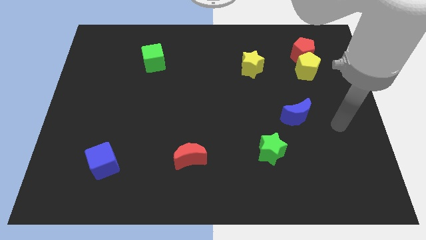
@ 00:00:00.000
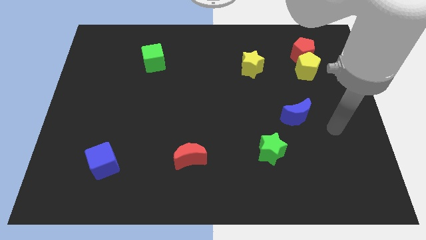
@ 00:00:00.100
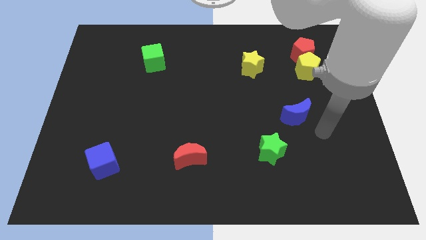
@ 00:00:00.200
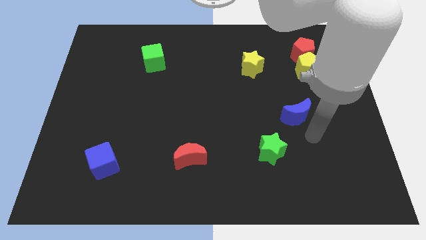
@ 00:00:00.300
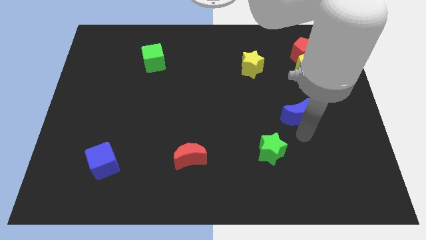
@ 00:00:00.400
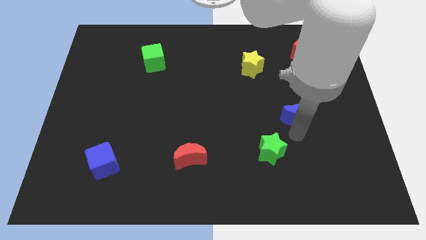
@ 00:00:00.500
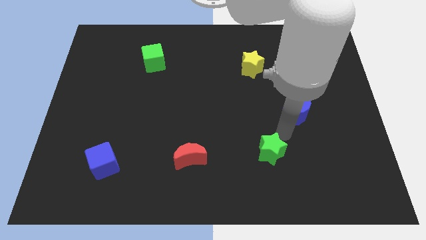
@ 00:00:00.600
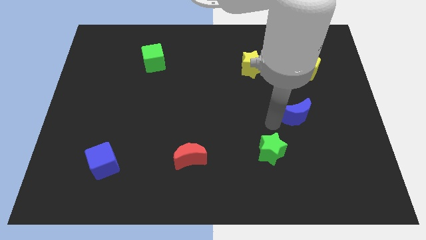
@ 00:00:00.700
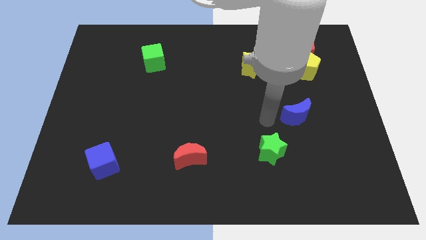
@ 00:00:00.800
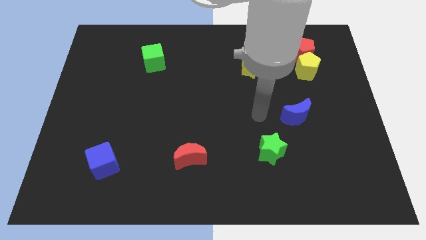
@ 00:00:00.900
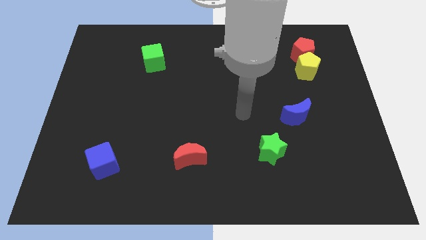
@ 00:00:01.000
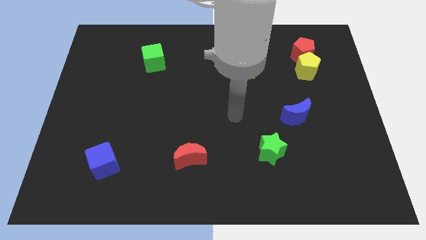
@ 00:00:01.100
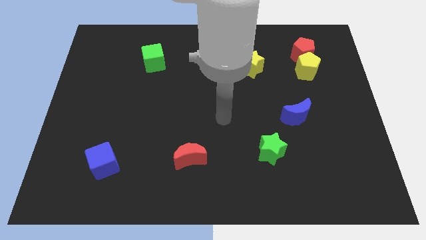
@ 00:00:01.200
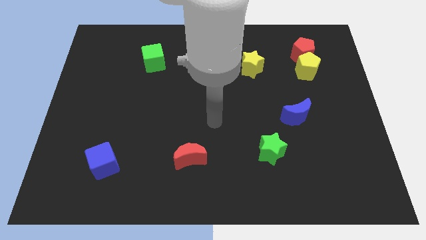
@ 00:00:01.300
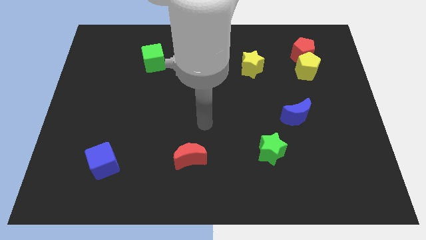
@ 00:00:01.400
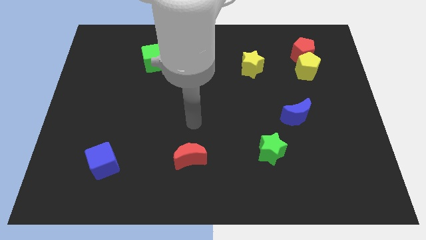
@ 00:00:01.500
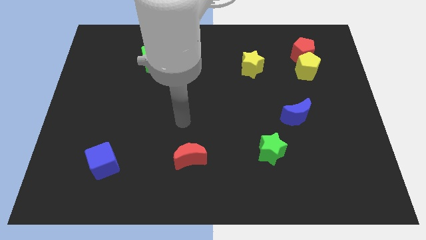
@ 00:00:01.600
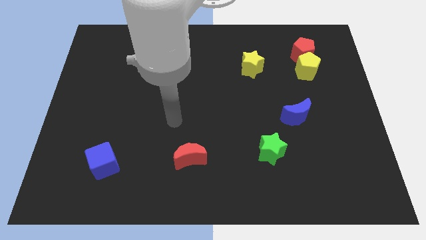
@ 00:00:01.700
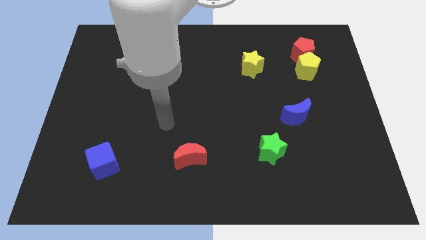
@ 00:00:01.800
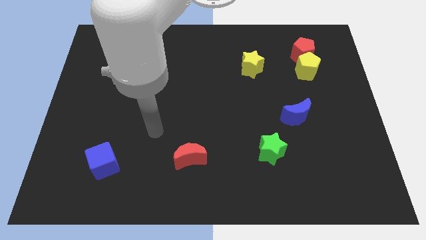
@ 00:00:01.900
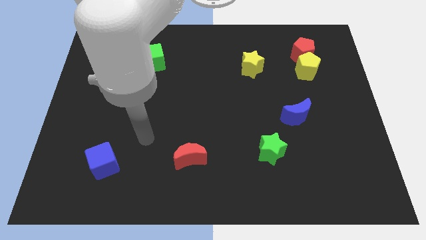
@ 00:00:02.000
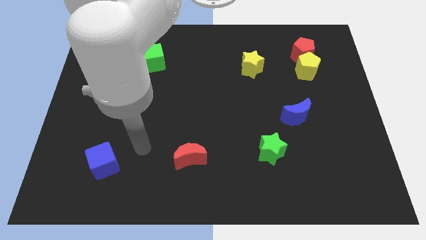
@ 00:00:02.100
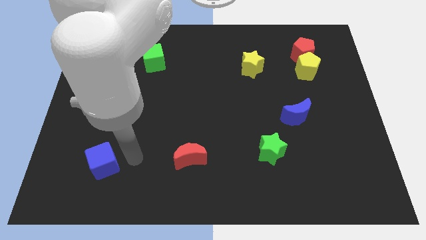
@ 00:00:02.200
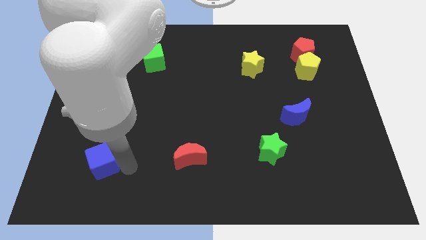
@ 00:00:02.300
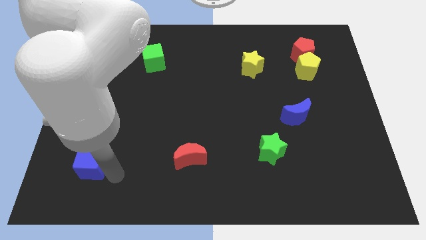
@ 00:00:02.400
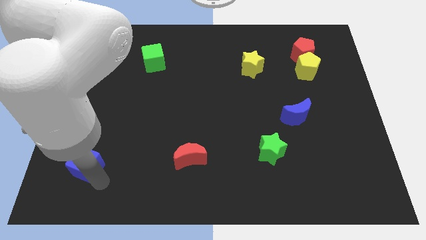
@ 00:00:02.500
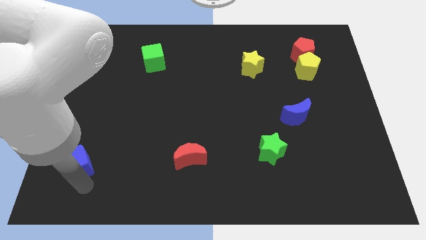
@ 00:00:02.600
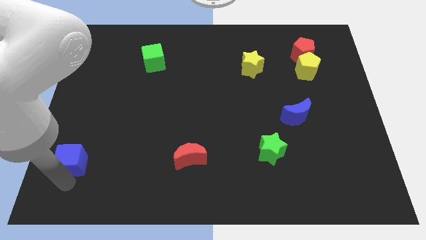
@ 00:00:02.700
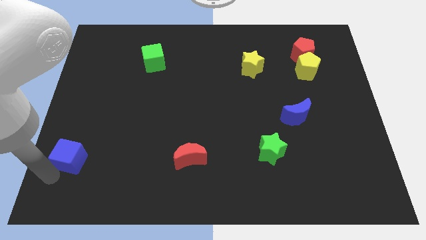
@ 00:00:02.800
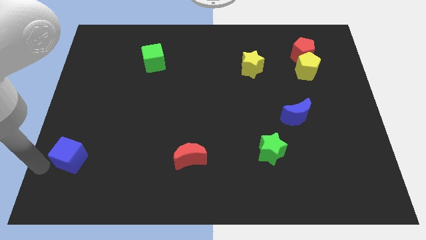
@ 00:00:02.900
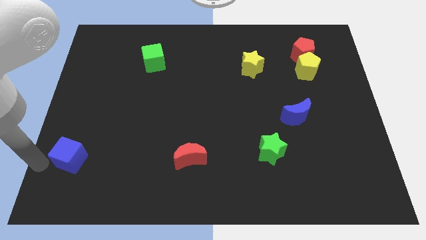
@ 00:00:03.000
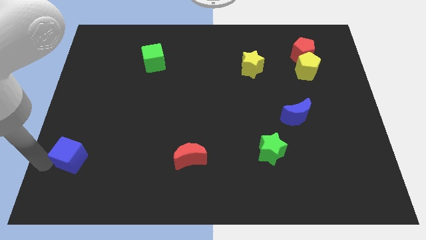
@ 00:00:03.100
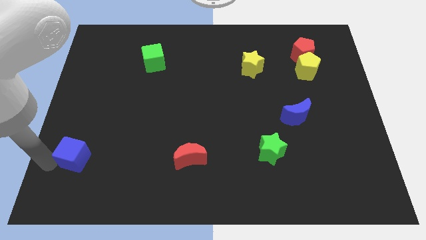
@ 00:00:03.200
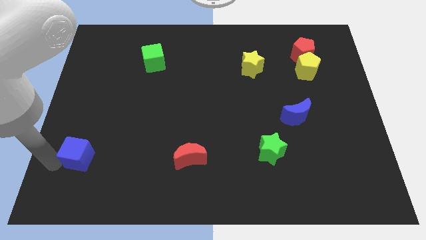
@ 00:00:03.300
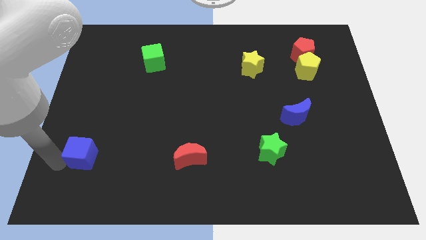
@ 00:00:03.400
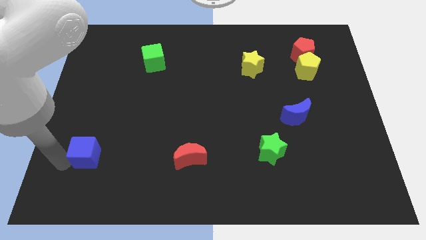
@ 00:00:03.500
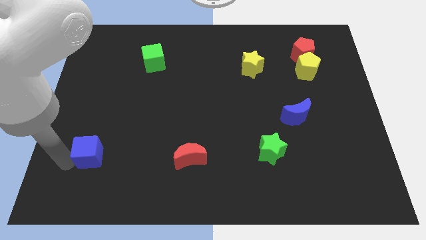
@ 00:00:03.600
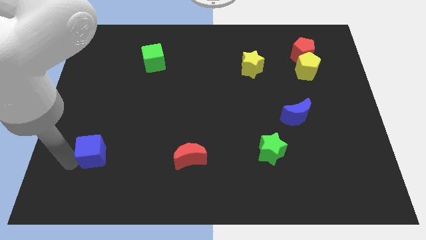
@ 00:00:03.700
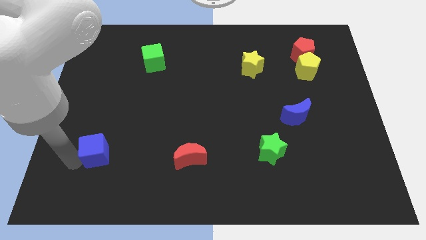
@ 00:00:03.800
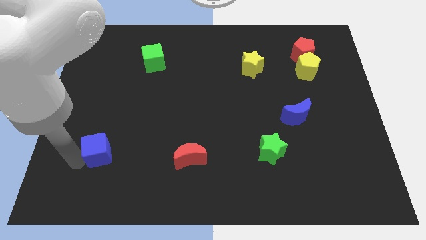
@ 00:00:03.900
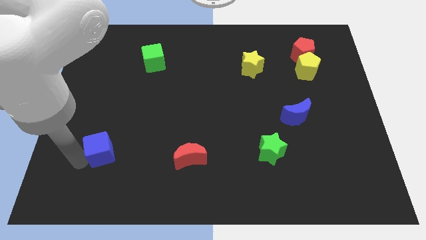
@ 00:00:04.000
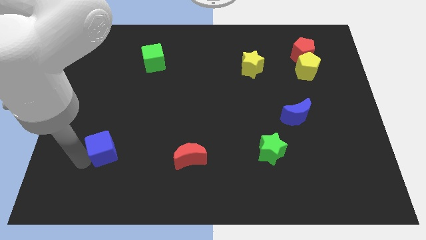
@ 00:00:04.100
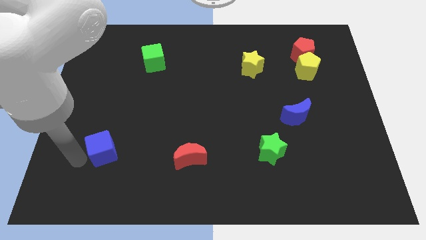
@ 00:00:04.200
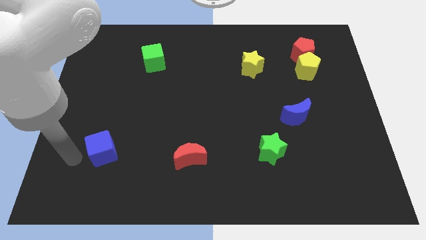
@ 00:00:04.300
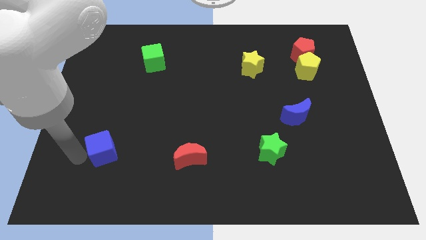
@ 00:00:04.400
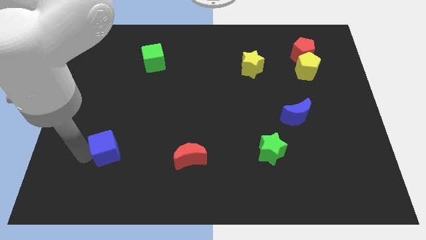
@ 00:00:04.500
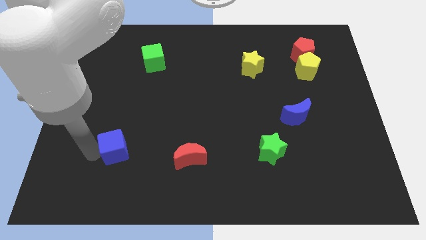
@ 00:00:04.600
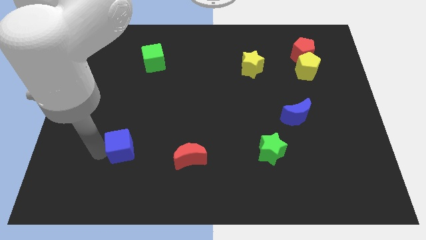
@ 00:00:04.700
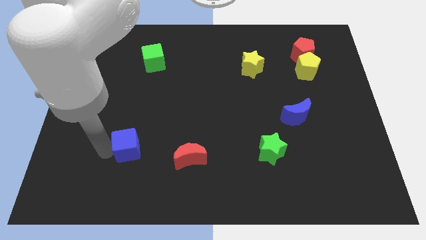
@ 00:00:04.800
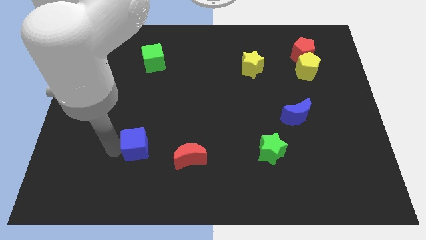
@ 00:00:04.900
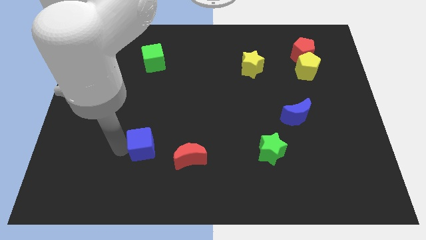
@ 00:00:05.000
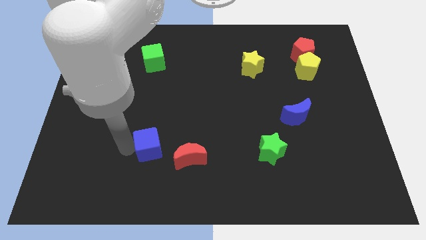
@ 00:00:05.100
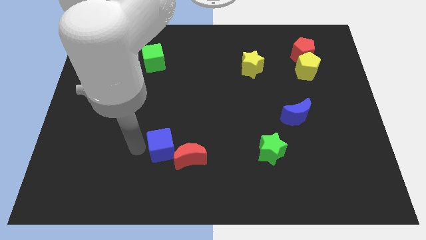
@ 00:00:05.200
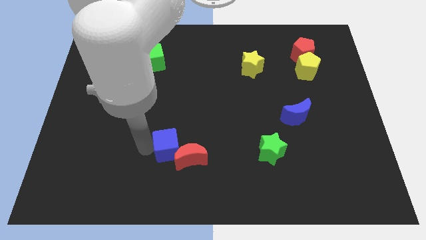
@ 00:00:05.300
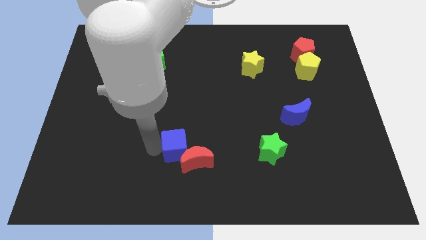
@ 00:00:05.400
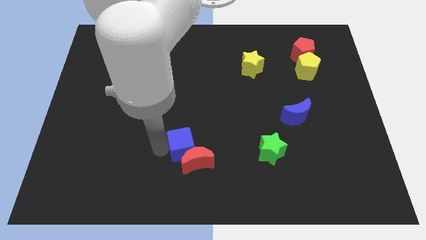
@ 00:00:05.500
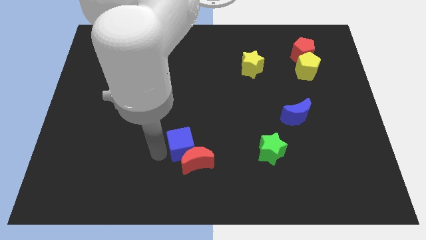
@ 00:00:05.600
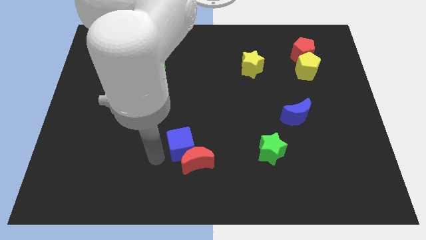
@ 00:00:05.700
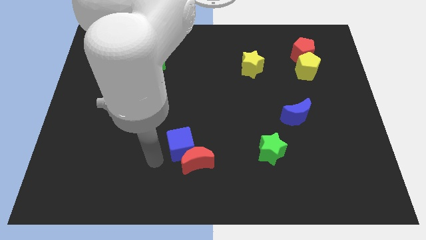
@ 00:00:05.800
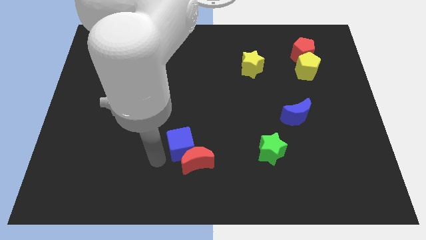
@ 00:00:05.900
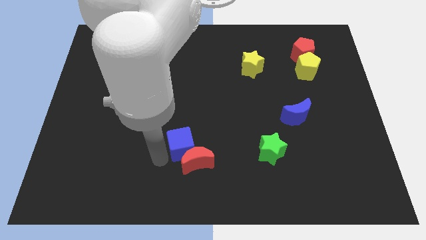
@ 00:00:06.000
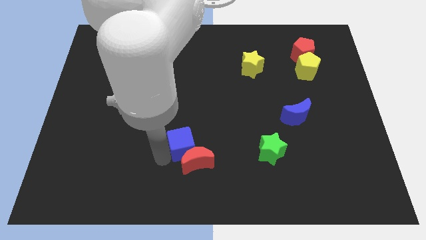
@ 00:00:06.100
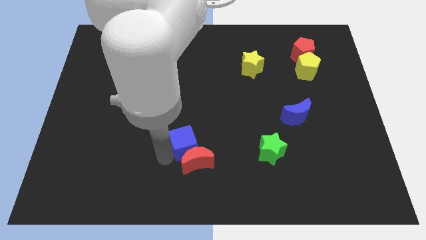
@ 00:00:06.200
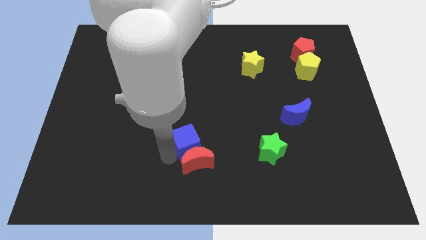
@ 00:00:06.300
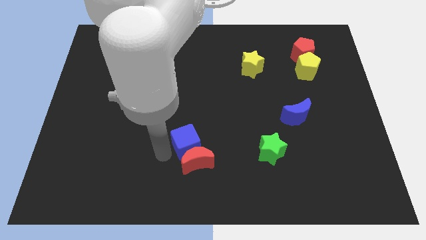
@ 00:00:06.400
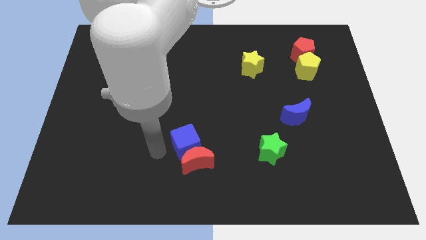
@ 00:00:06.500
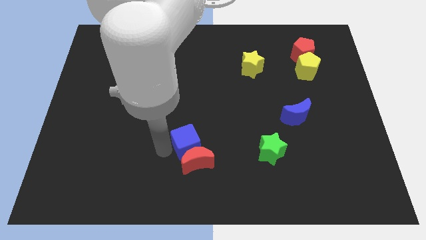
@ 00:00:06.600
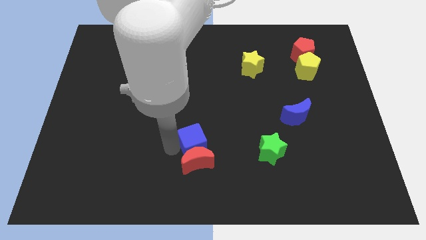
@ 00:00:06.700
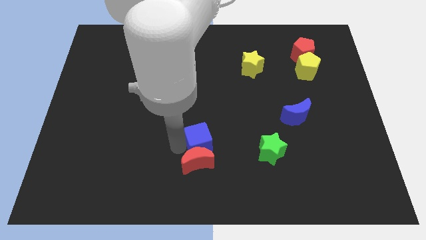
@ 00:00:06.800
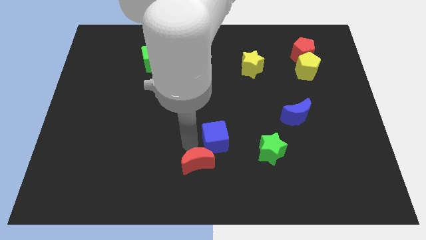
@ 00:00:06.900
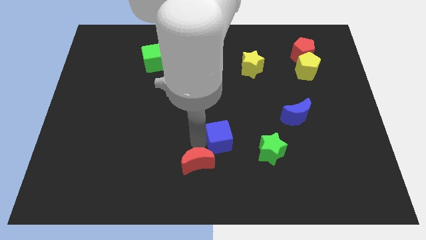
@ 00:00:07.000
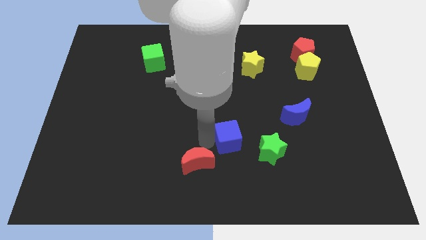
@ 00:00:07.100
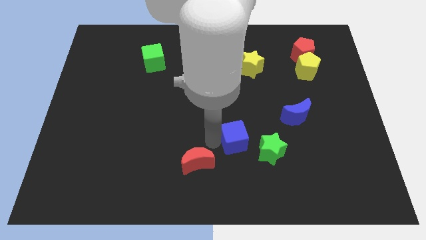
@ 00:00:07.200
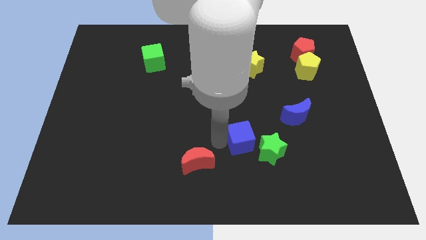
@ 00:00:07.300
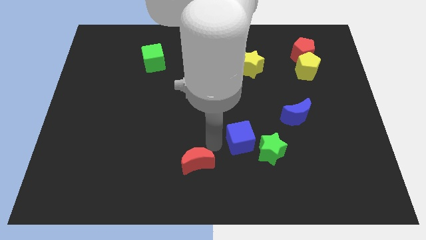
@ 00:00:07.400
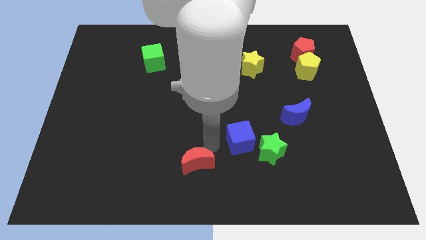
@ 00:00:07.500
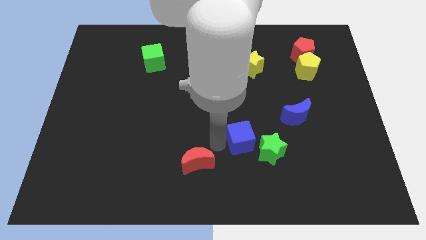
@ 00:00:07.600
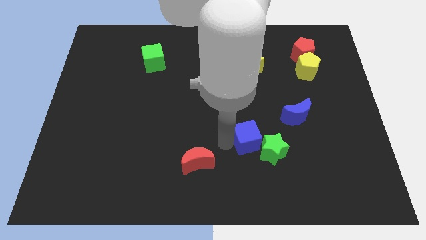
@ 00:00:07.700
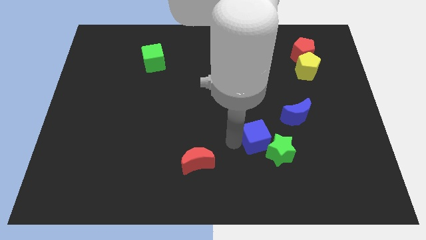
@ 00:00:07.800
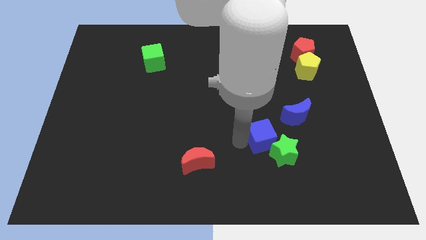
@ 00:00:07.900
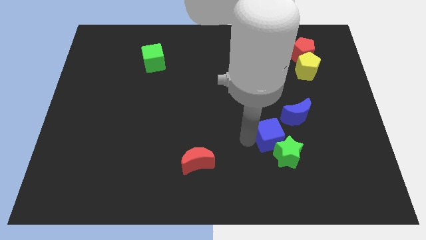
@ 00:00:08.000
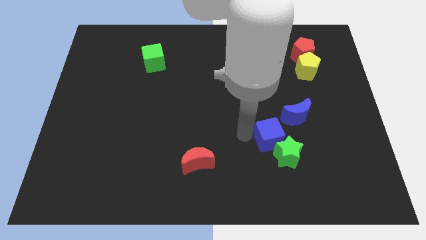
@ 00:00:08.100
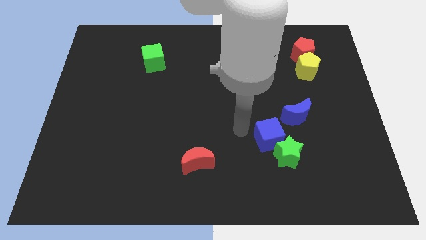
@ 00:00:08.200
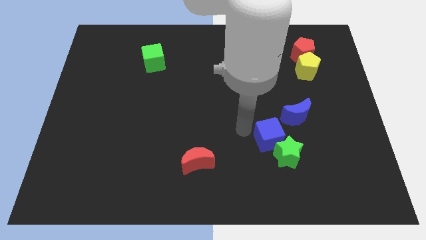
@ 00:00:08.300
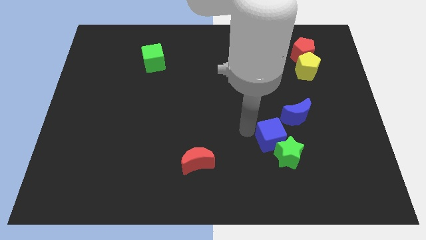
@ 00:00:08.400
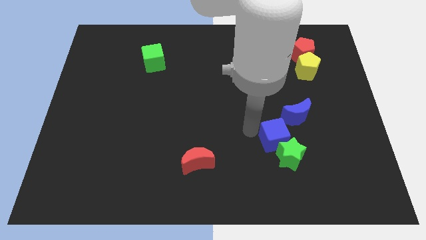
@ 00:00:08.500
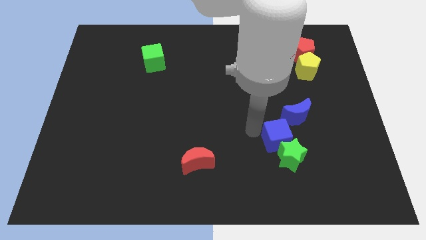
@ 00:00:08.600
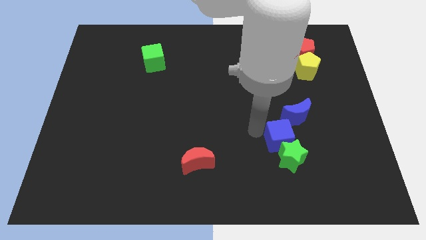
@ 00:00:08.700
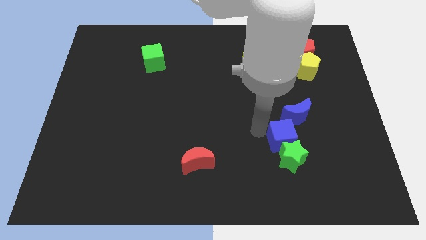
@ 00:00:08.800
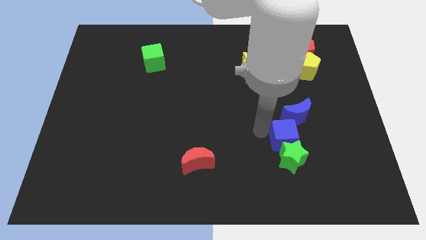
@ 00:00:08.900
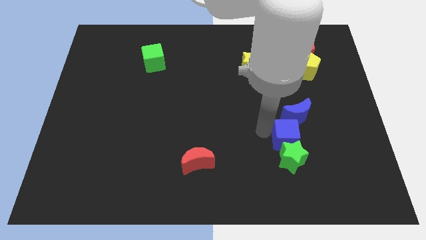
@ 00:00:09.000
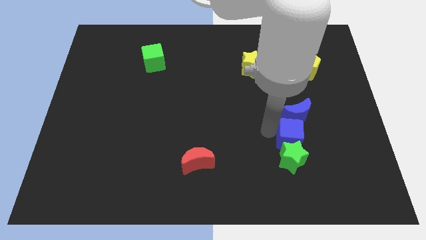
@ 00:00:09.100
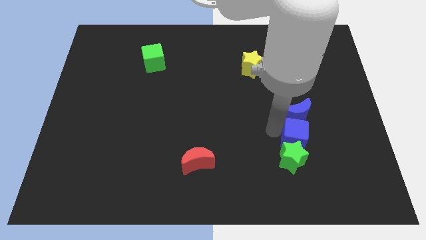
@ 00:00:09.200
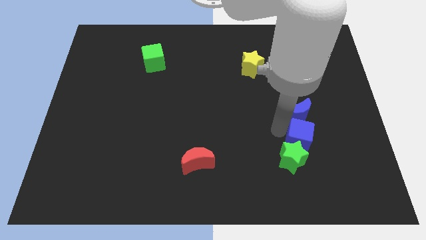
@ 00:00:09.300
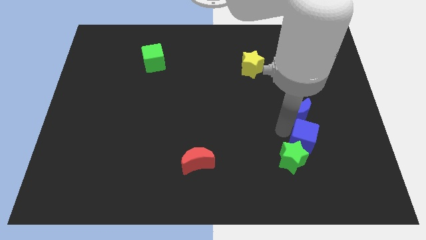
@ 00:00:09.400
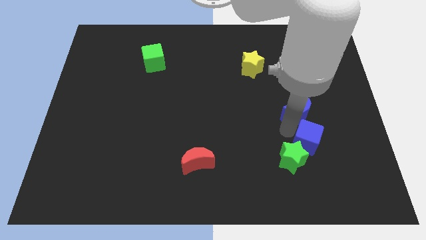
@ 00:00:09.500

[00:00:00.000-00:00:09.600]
move the blue cube to the right side of the green star
